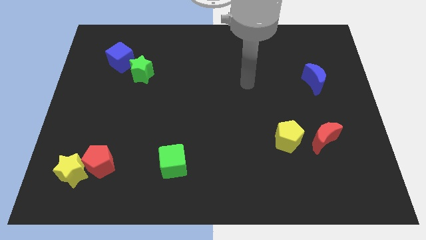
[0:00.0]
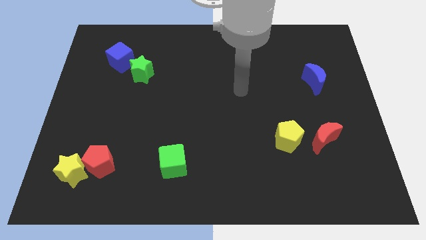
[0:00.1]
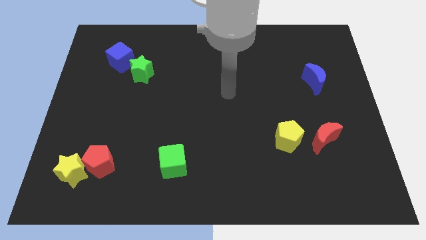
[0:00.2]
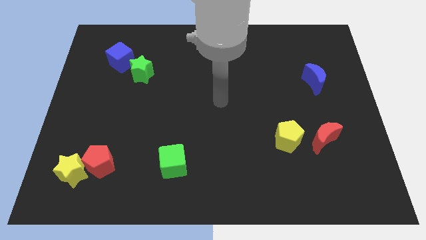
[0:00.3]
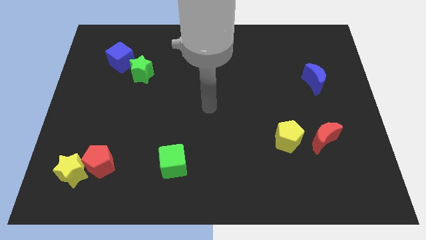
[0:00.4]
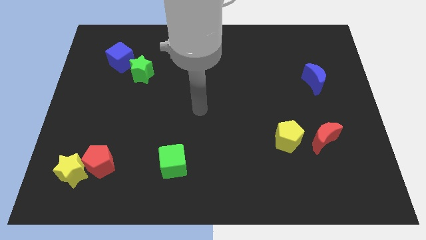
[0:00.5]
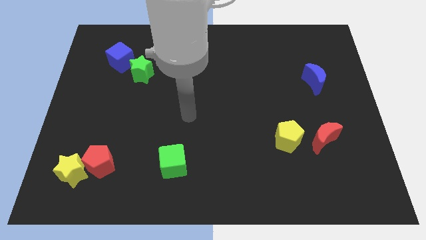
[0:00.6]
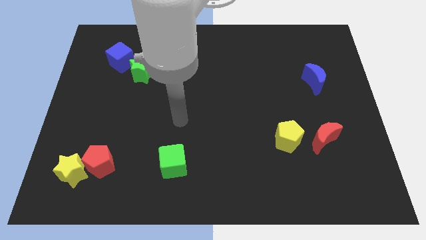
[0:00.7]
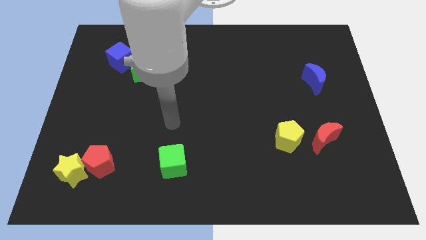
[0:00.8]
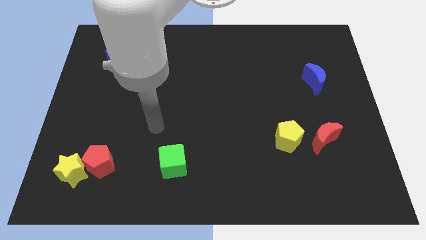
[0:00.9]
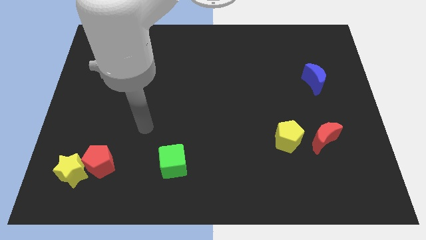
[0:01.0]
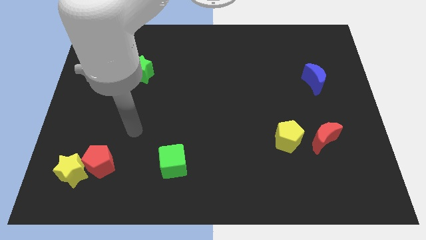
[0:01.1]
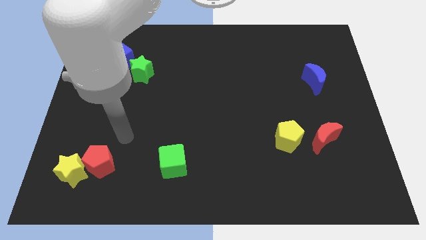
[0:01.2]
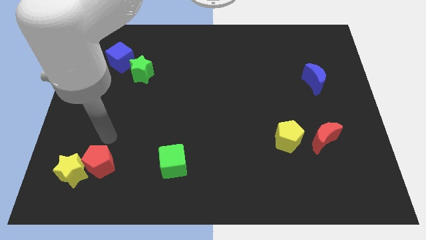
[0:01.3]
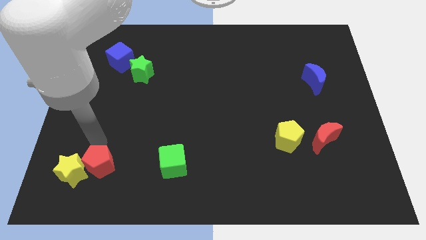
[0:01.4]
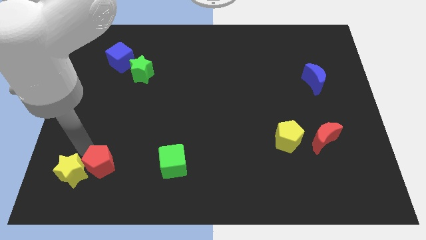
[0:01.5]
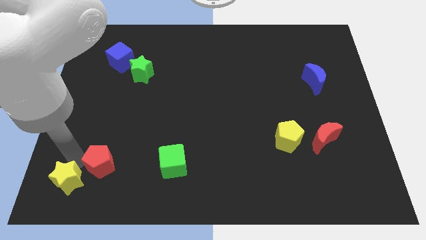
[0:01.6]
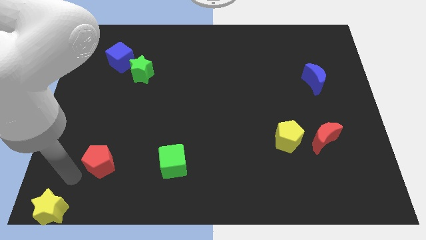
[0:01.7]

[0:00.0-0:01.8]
pull the red pentagon apart from the yellow star

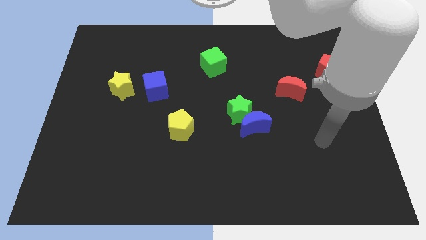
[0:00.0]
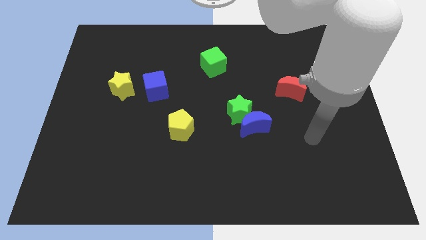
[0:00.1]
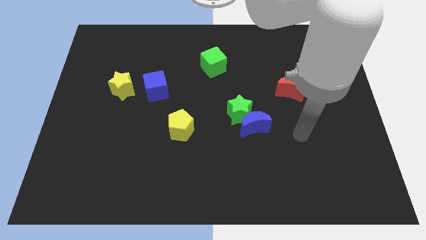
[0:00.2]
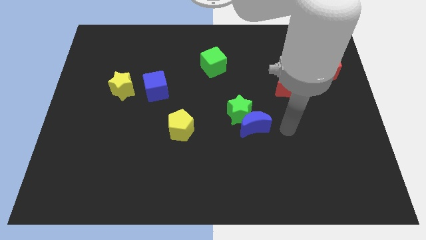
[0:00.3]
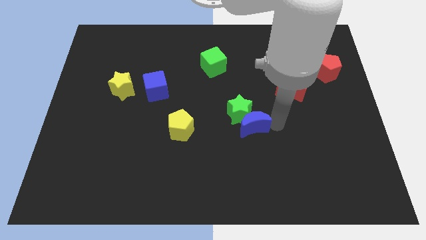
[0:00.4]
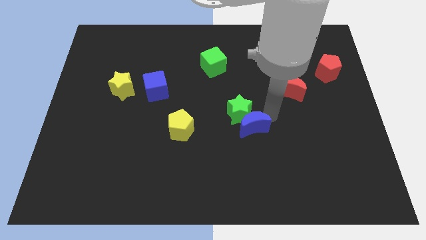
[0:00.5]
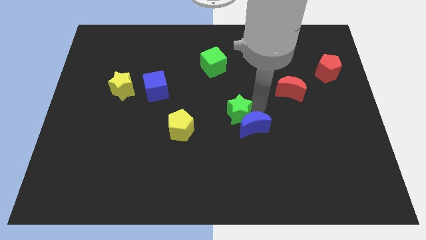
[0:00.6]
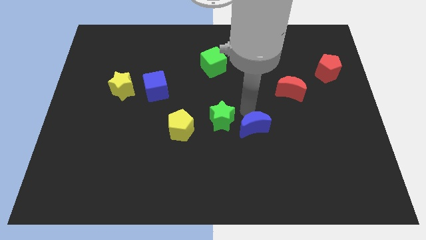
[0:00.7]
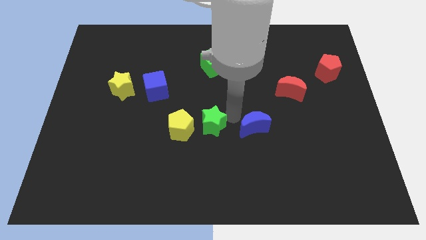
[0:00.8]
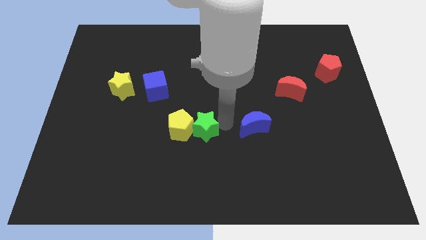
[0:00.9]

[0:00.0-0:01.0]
separate the blue moon from the green star

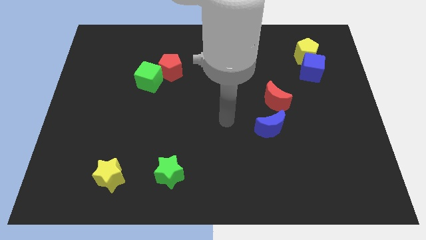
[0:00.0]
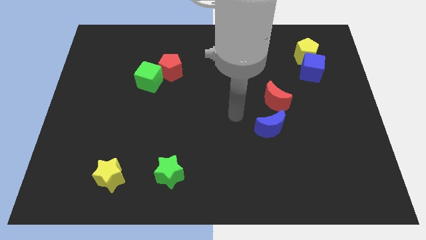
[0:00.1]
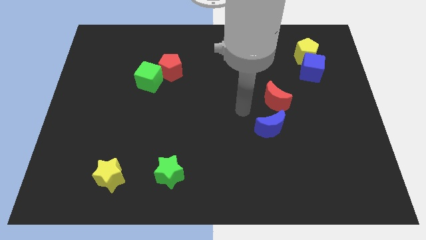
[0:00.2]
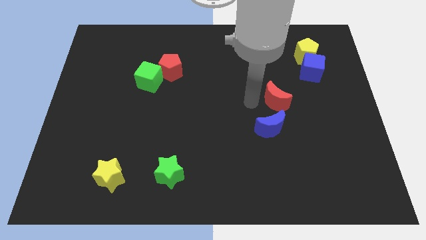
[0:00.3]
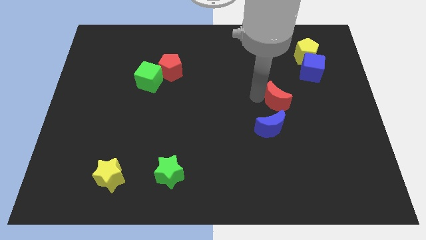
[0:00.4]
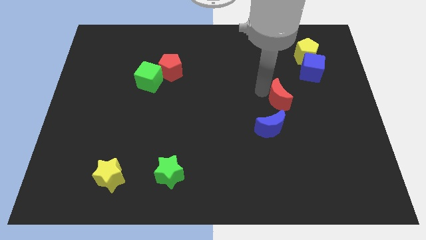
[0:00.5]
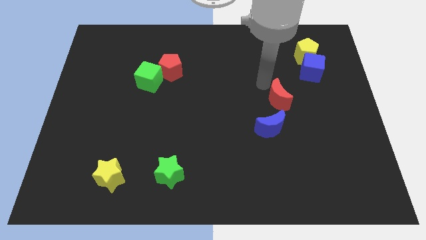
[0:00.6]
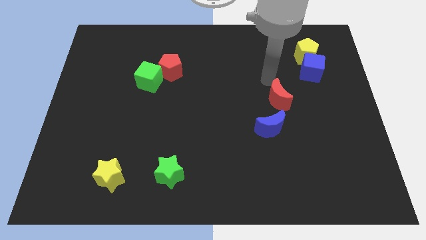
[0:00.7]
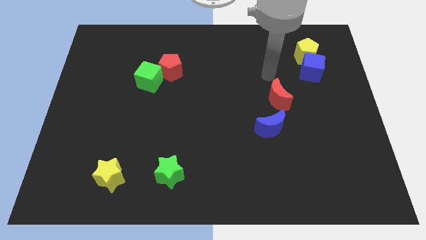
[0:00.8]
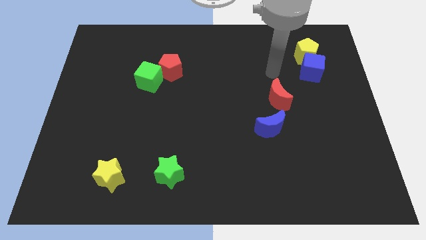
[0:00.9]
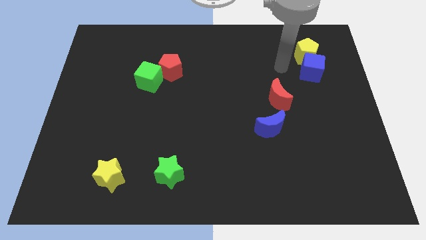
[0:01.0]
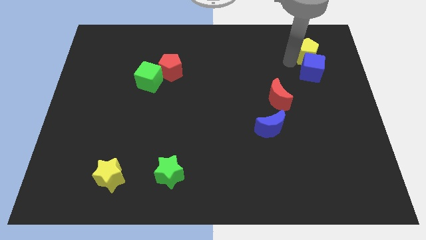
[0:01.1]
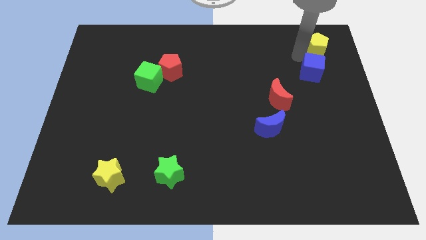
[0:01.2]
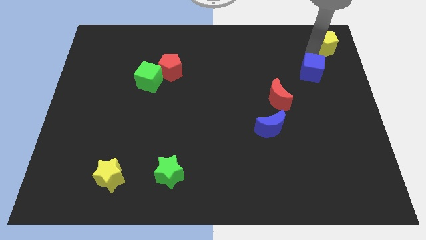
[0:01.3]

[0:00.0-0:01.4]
move the blue cube away from the yellow pentagon

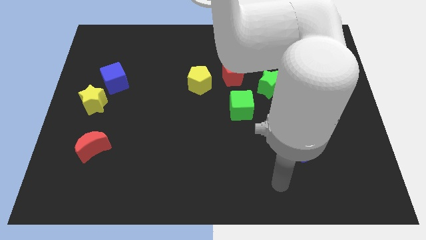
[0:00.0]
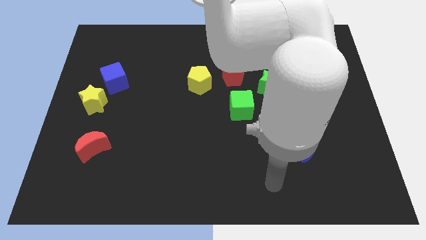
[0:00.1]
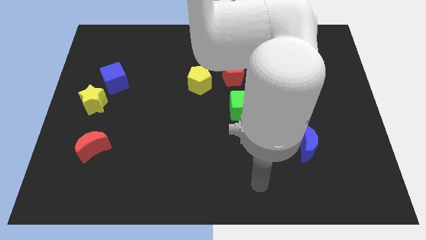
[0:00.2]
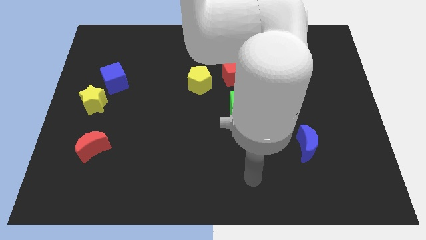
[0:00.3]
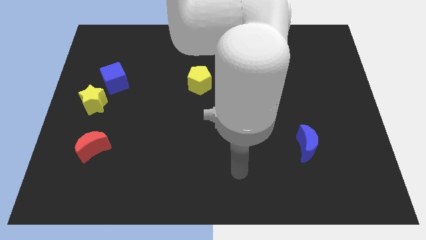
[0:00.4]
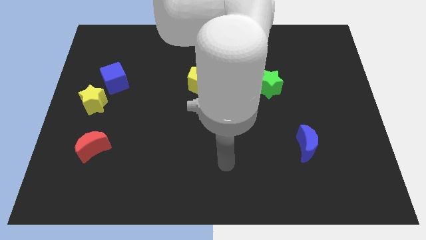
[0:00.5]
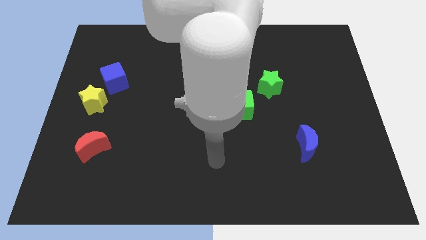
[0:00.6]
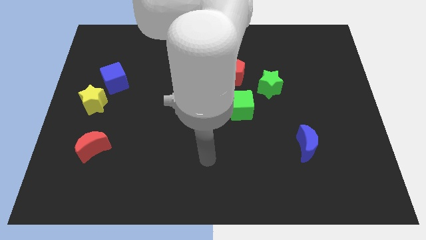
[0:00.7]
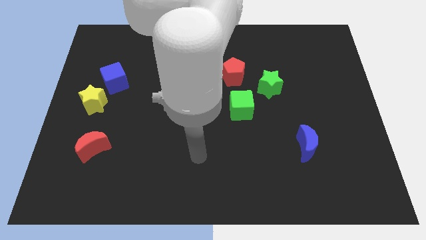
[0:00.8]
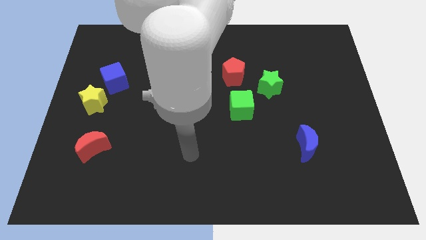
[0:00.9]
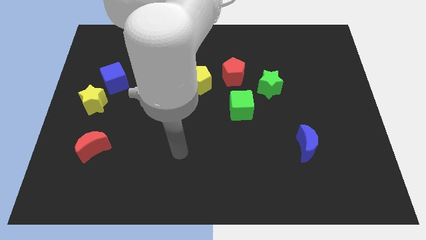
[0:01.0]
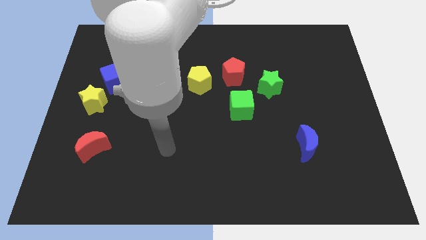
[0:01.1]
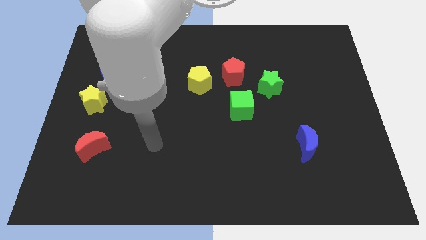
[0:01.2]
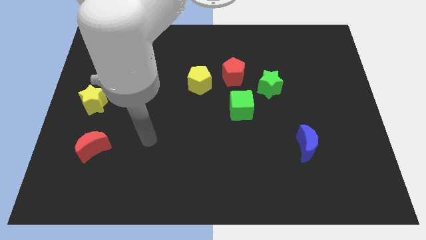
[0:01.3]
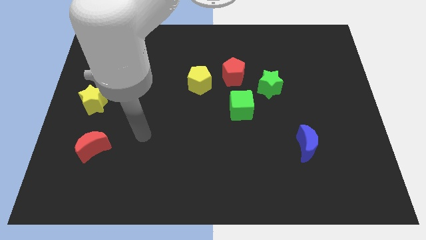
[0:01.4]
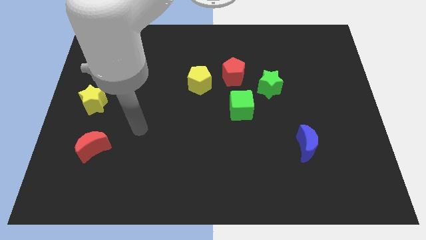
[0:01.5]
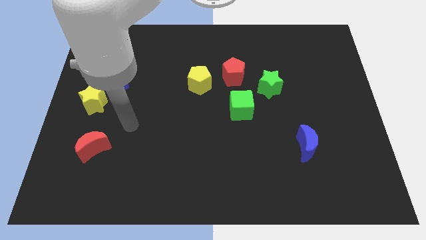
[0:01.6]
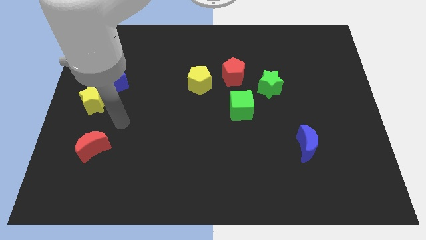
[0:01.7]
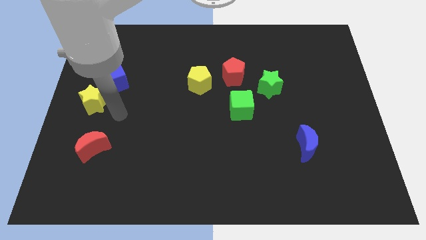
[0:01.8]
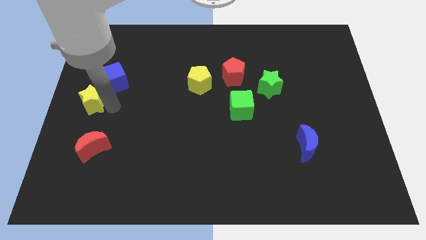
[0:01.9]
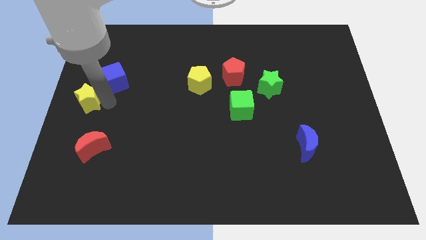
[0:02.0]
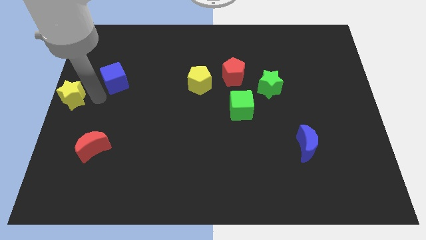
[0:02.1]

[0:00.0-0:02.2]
separate the blue cube from the yellow star

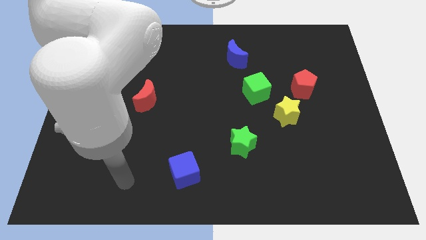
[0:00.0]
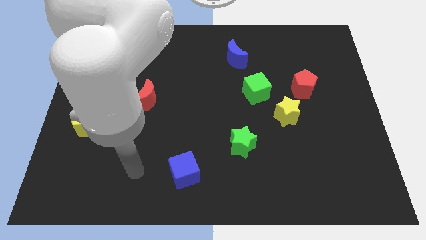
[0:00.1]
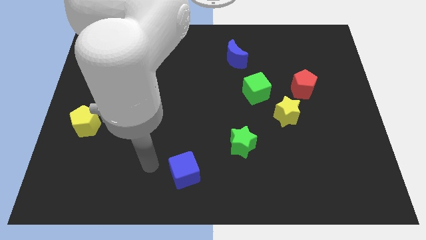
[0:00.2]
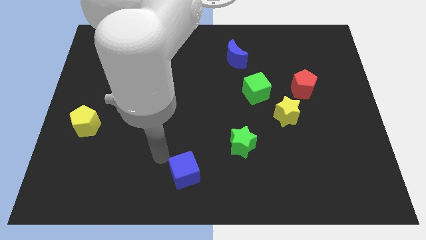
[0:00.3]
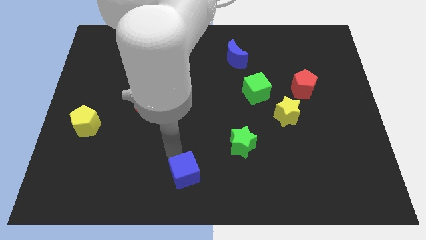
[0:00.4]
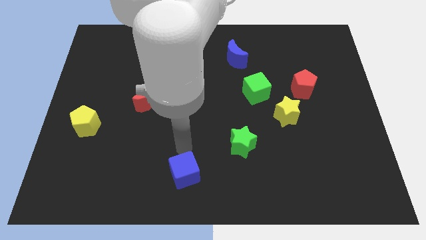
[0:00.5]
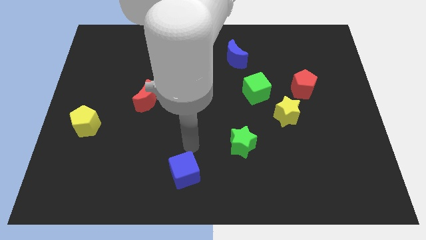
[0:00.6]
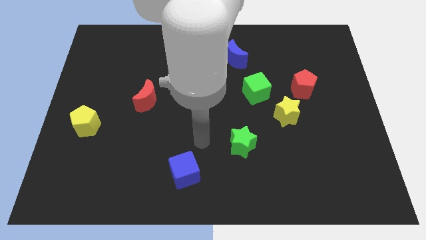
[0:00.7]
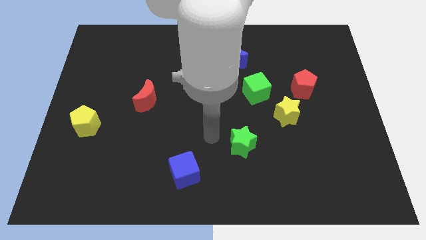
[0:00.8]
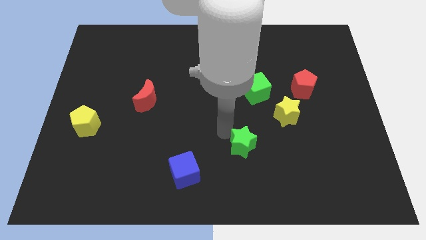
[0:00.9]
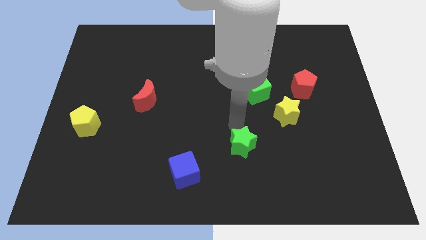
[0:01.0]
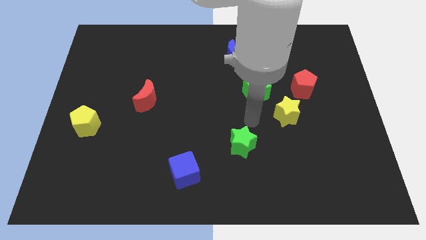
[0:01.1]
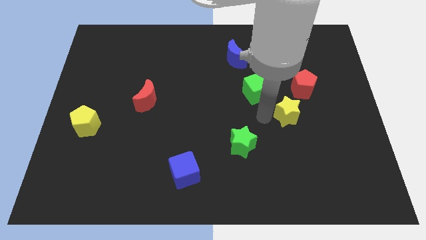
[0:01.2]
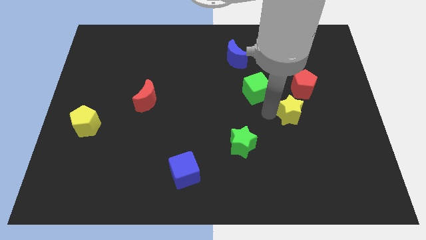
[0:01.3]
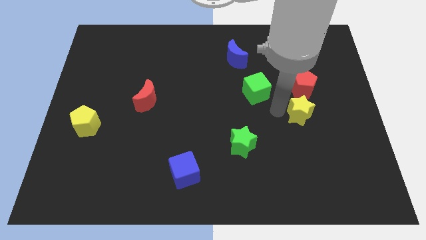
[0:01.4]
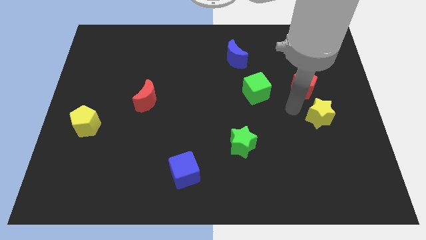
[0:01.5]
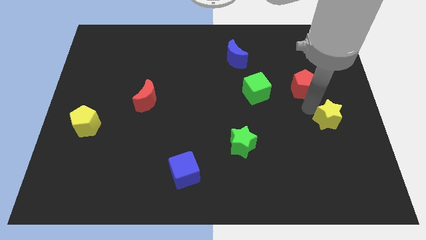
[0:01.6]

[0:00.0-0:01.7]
move the red pentagon away from the yellow star

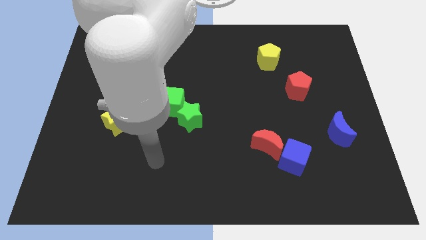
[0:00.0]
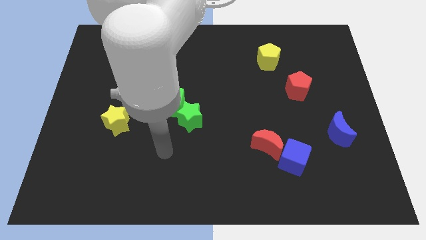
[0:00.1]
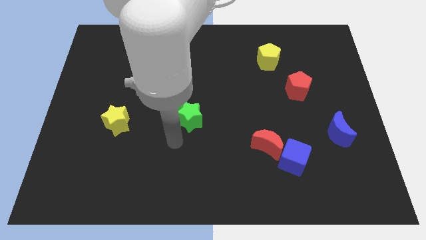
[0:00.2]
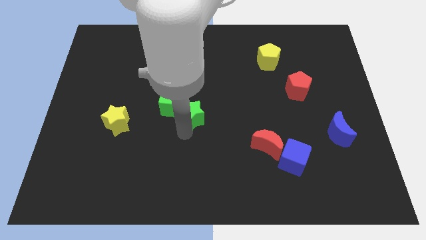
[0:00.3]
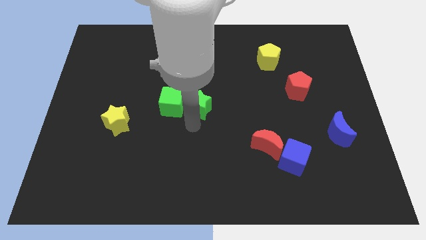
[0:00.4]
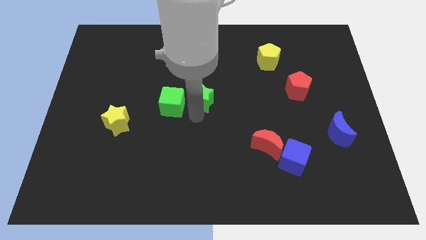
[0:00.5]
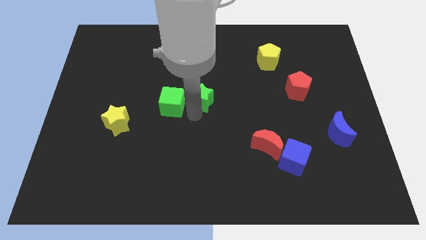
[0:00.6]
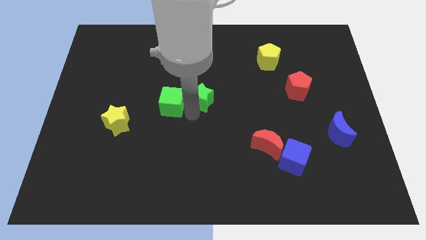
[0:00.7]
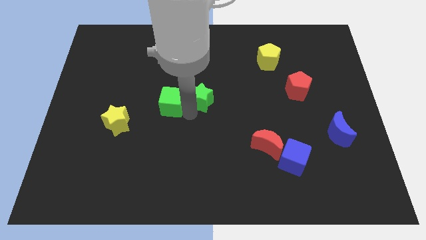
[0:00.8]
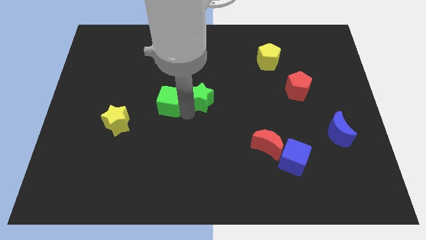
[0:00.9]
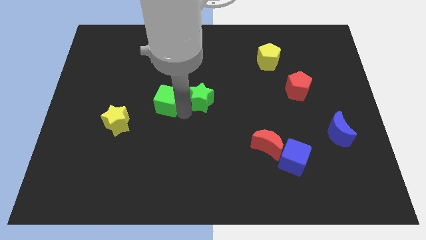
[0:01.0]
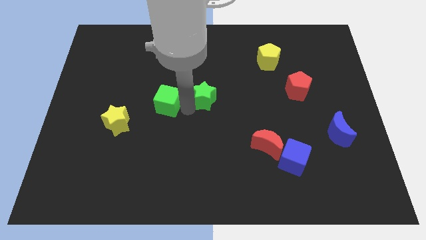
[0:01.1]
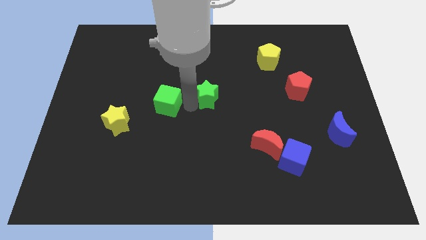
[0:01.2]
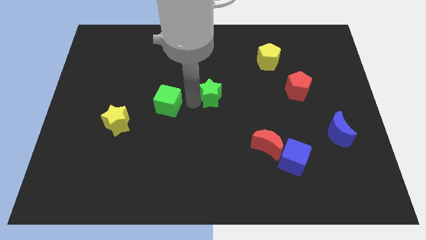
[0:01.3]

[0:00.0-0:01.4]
pull the green cube apart from the green star
